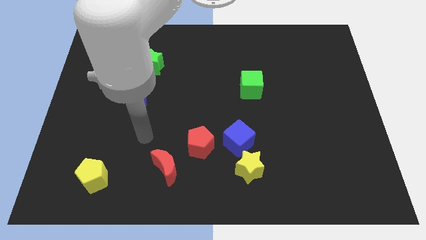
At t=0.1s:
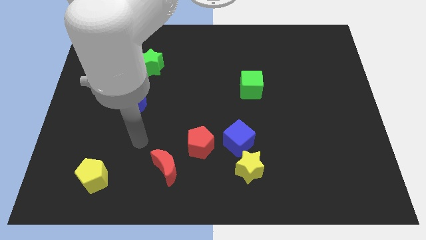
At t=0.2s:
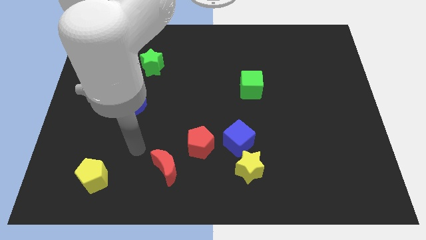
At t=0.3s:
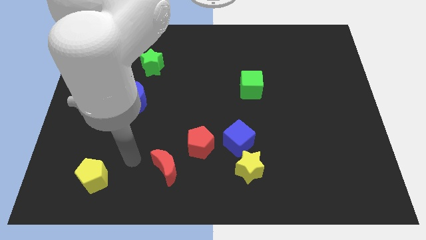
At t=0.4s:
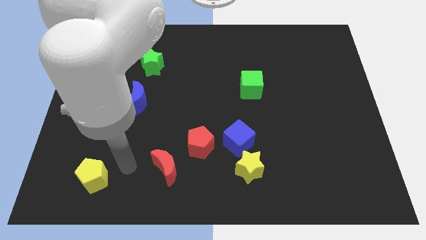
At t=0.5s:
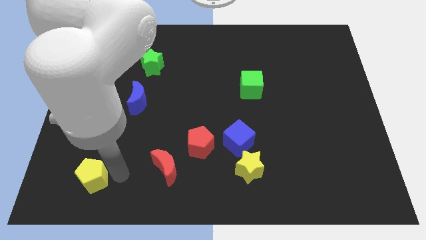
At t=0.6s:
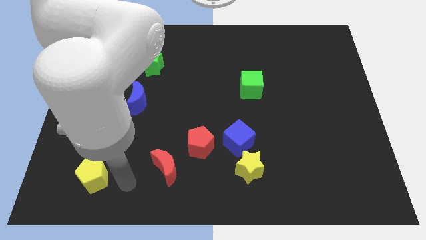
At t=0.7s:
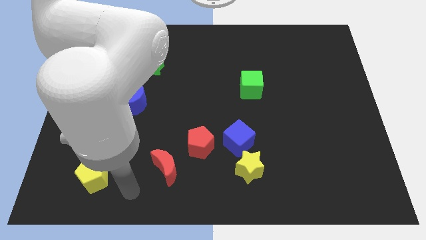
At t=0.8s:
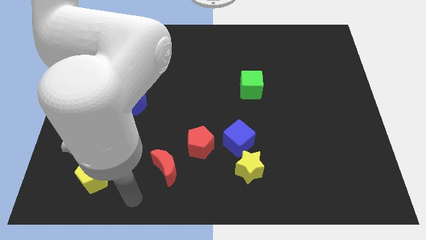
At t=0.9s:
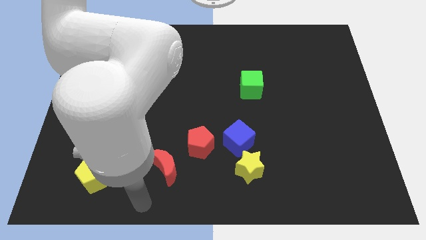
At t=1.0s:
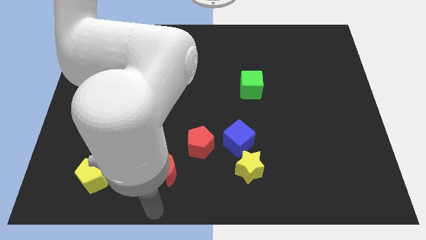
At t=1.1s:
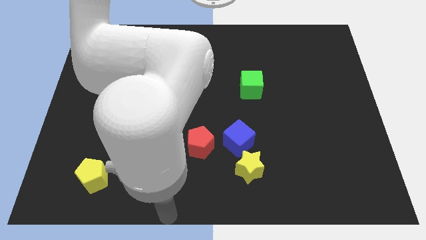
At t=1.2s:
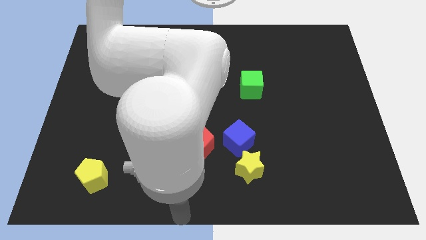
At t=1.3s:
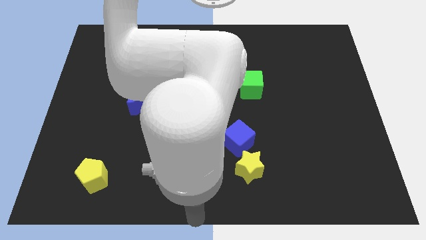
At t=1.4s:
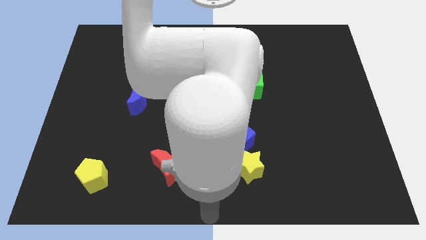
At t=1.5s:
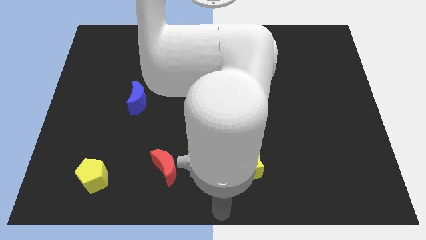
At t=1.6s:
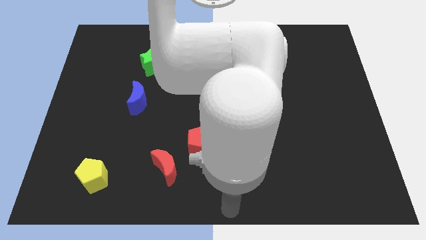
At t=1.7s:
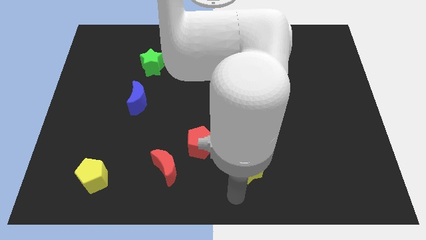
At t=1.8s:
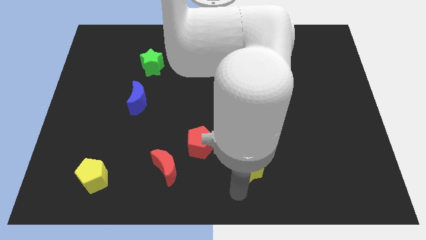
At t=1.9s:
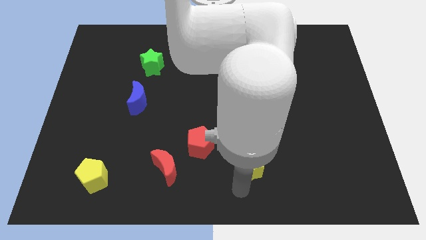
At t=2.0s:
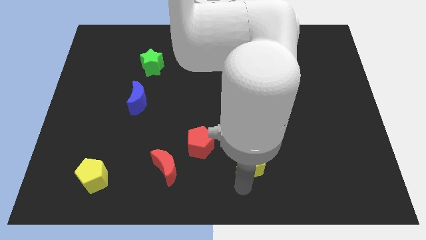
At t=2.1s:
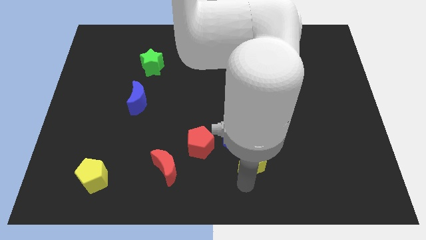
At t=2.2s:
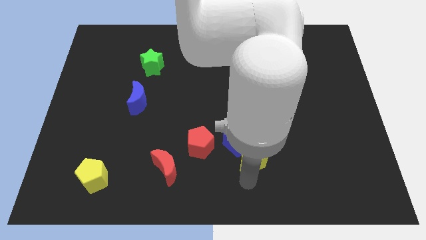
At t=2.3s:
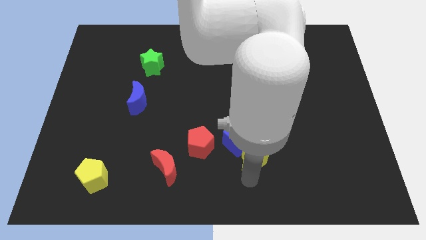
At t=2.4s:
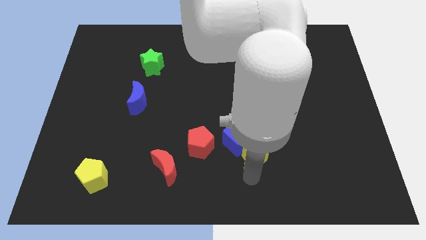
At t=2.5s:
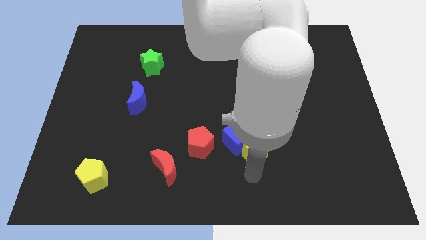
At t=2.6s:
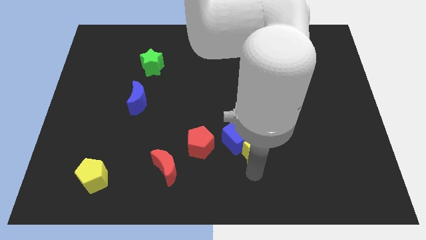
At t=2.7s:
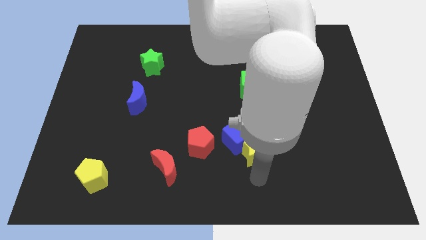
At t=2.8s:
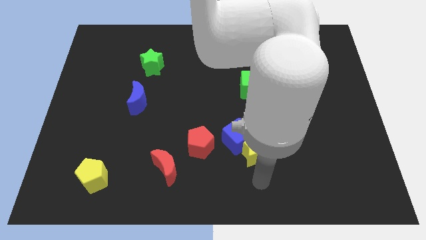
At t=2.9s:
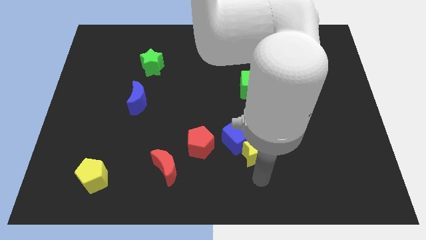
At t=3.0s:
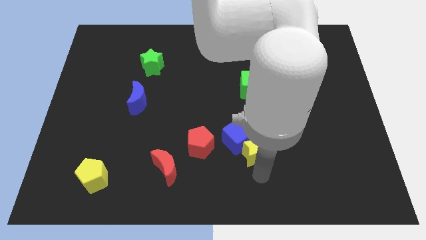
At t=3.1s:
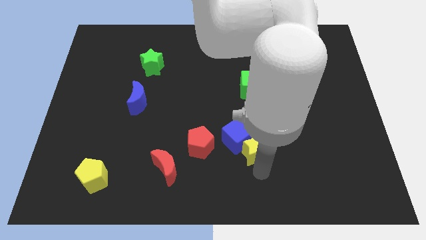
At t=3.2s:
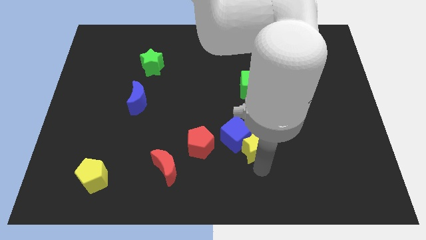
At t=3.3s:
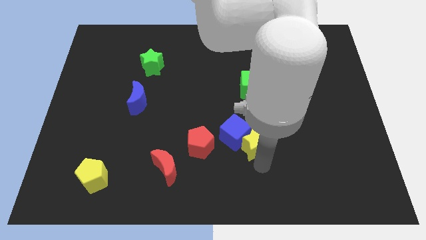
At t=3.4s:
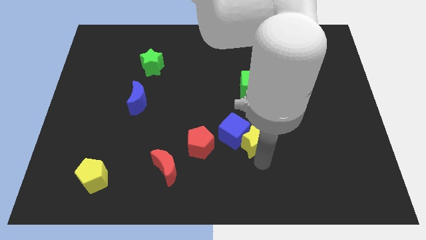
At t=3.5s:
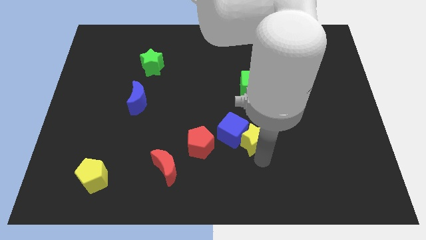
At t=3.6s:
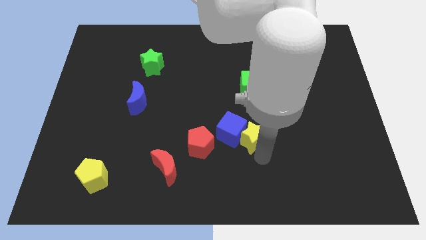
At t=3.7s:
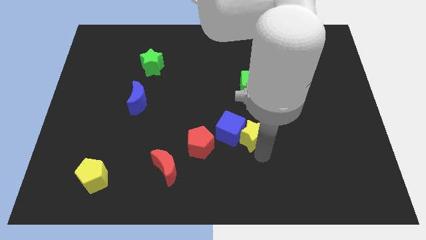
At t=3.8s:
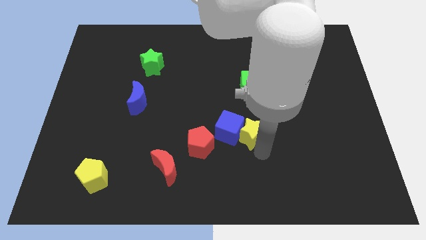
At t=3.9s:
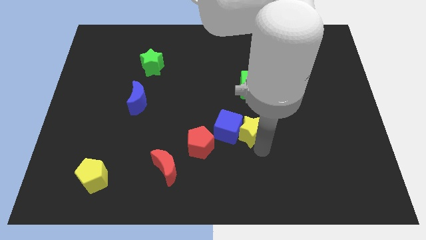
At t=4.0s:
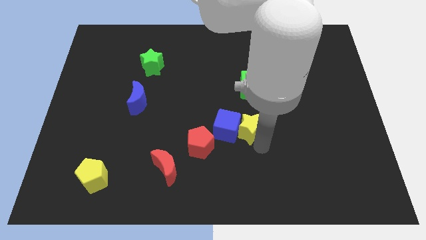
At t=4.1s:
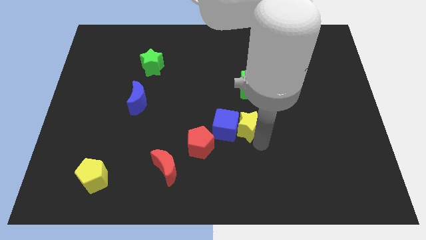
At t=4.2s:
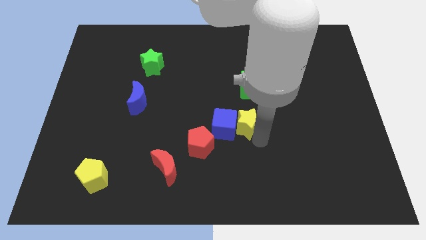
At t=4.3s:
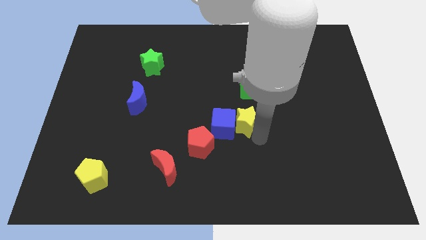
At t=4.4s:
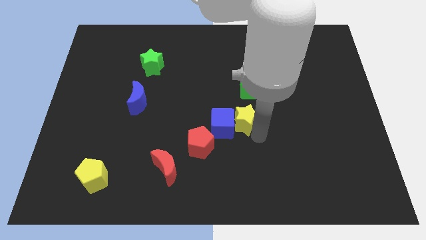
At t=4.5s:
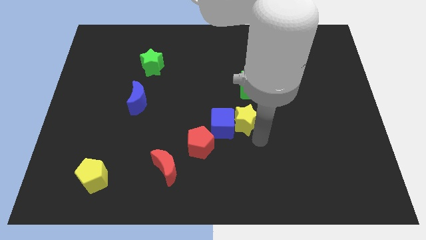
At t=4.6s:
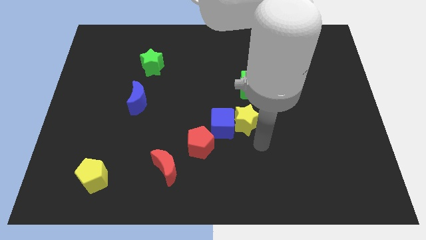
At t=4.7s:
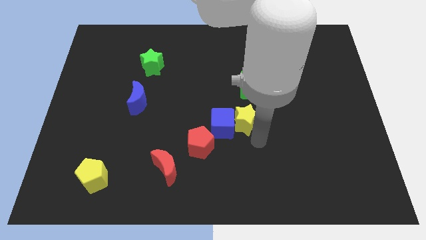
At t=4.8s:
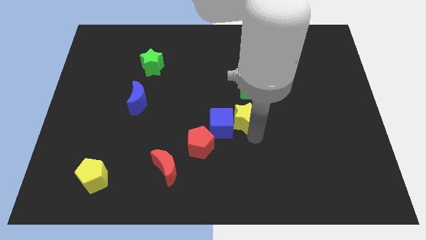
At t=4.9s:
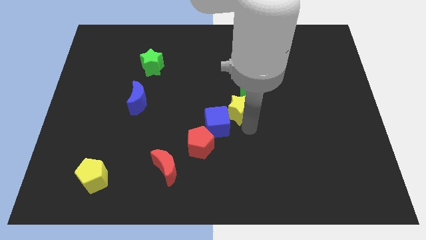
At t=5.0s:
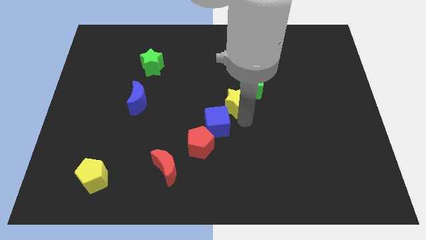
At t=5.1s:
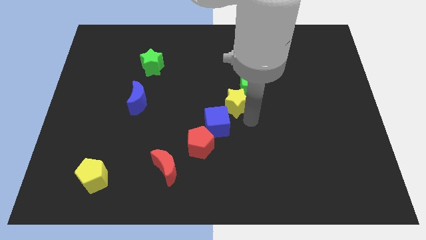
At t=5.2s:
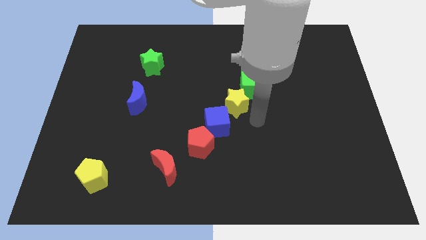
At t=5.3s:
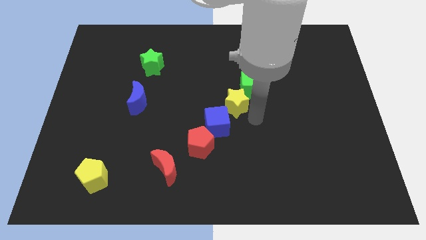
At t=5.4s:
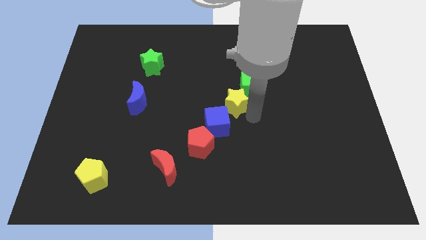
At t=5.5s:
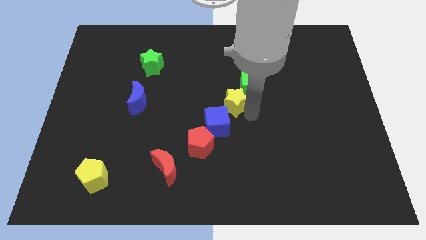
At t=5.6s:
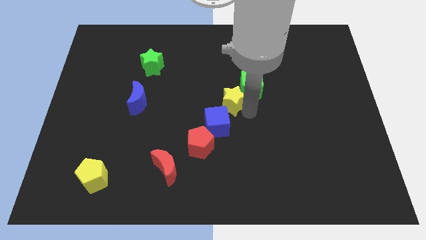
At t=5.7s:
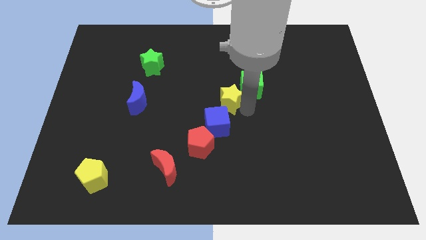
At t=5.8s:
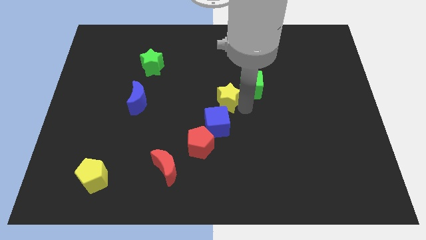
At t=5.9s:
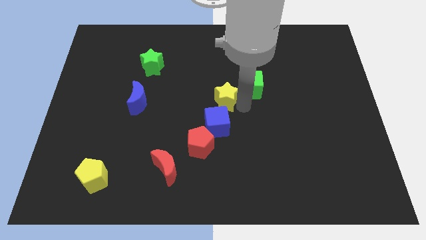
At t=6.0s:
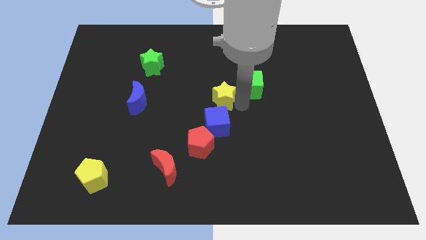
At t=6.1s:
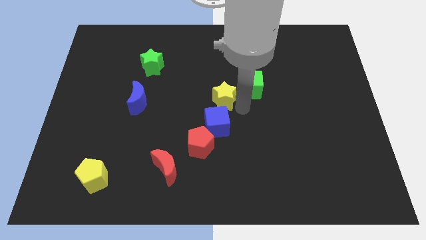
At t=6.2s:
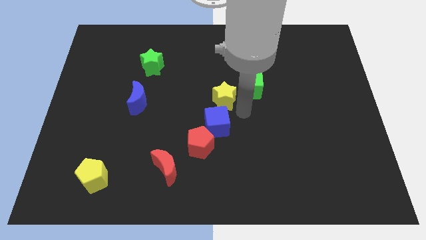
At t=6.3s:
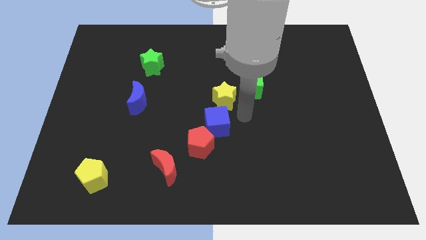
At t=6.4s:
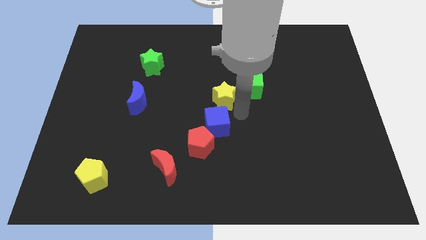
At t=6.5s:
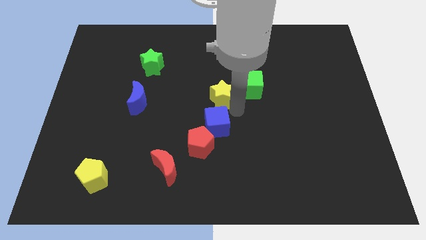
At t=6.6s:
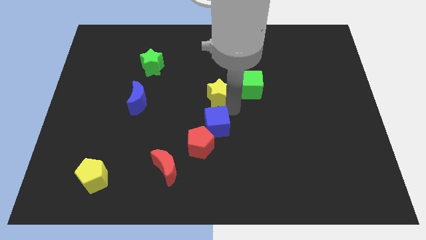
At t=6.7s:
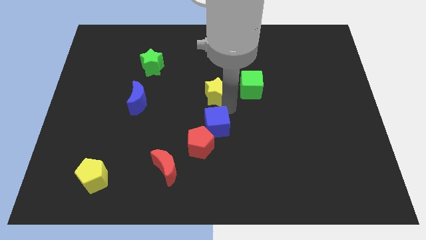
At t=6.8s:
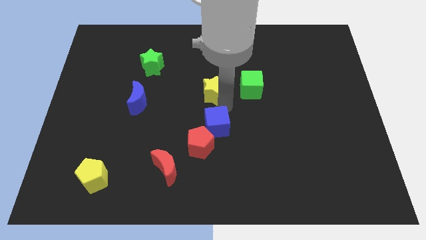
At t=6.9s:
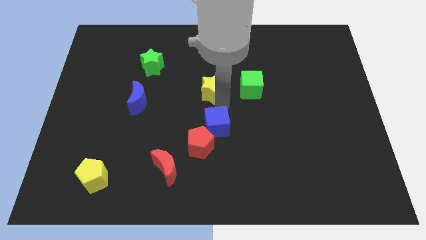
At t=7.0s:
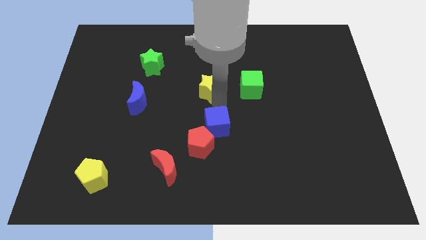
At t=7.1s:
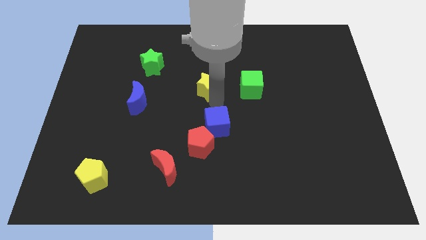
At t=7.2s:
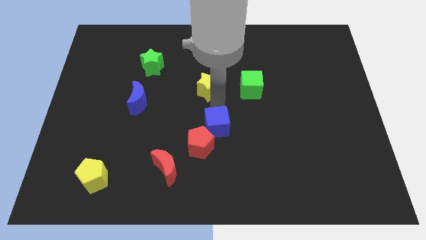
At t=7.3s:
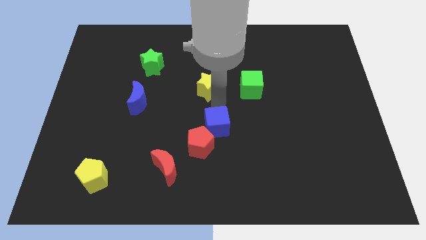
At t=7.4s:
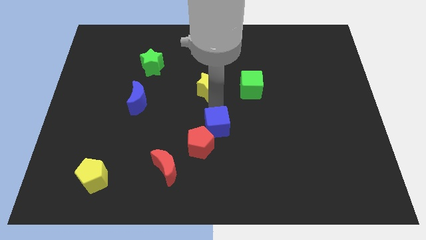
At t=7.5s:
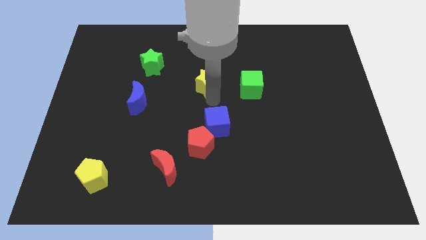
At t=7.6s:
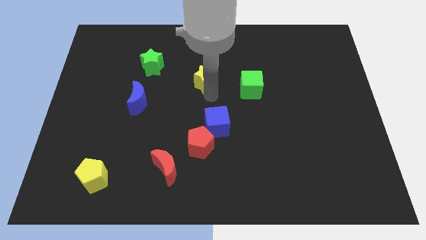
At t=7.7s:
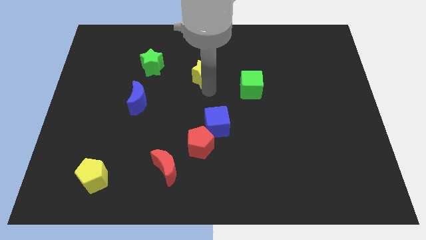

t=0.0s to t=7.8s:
push the yellow star to the right side of the green star
